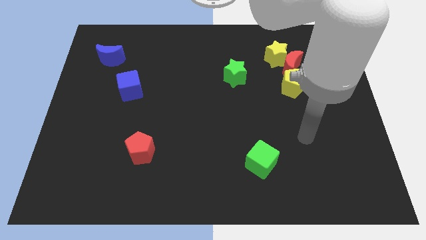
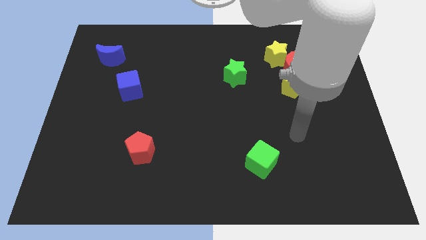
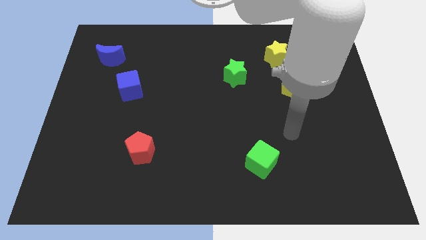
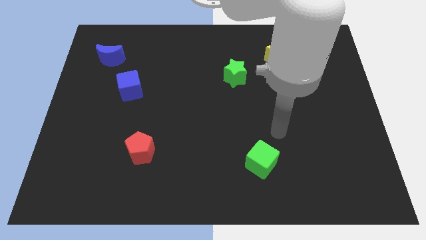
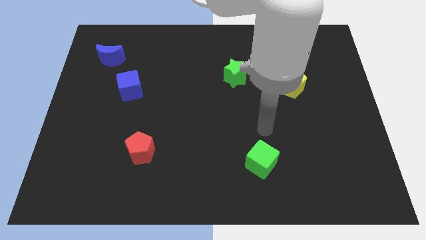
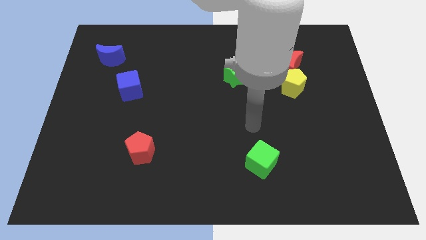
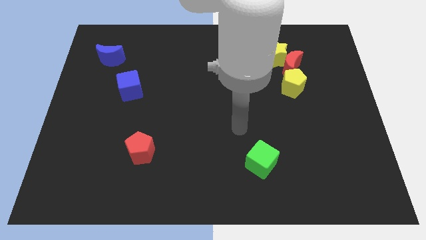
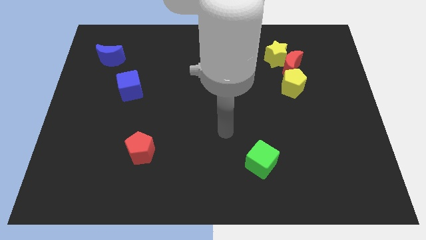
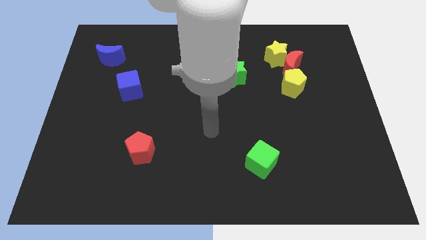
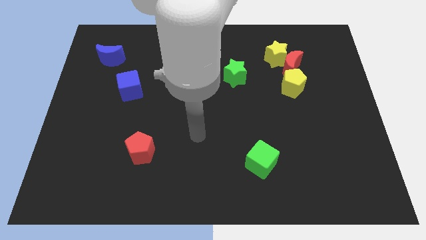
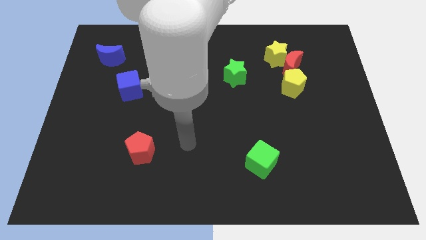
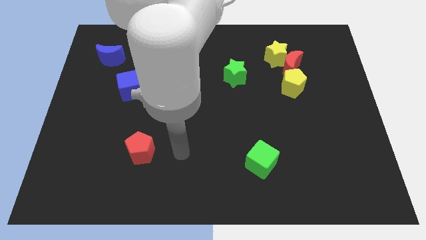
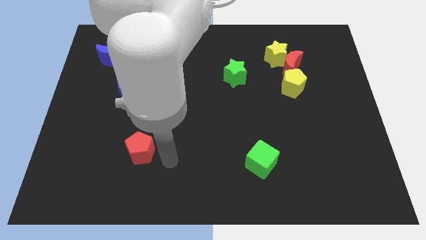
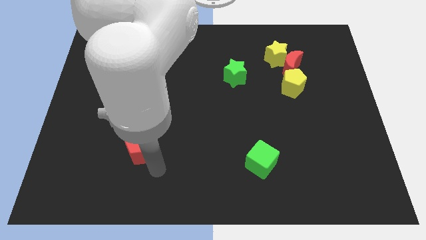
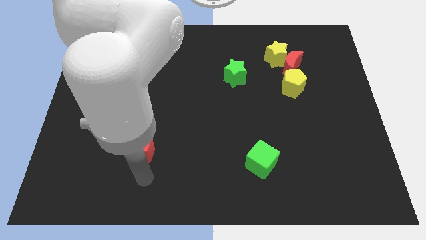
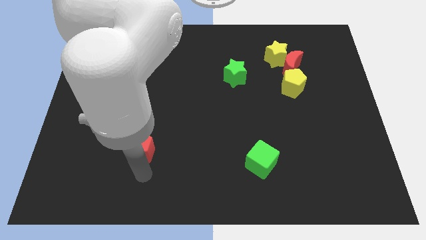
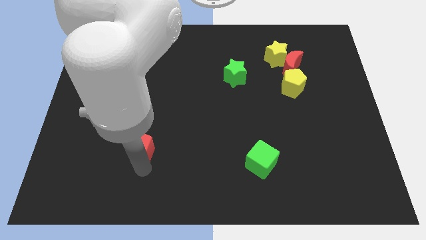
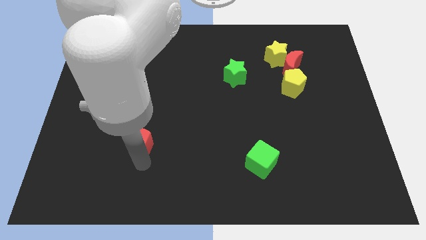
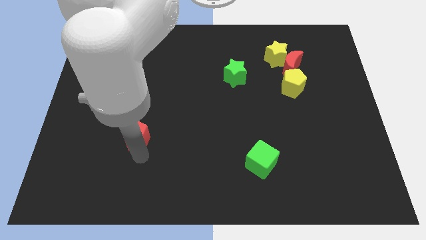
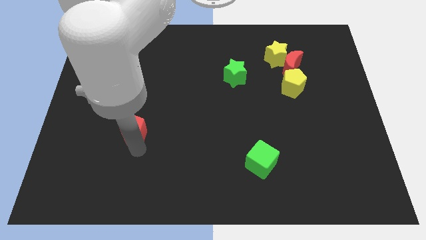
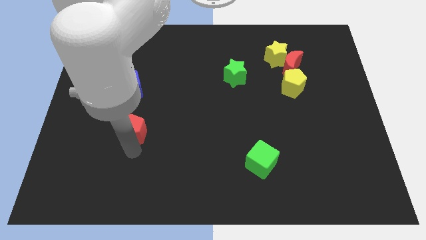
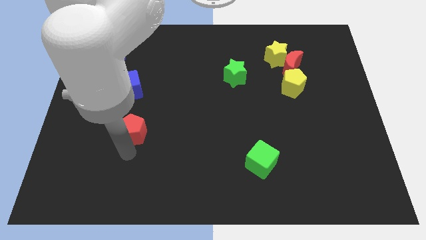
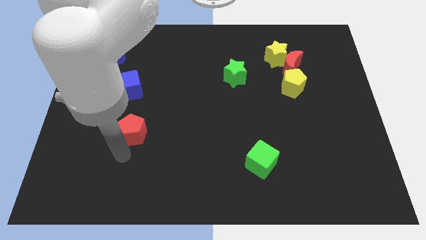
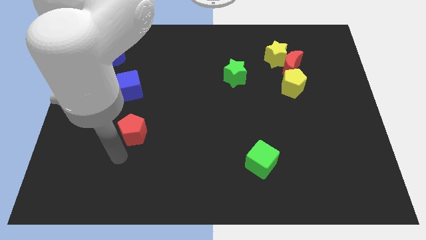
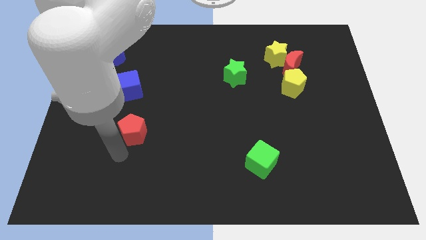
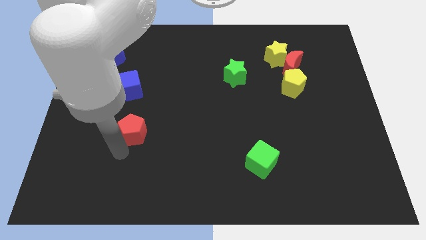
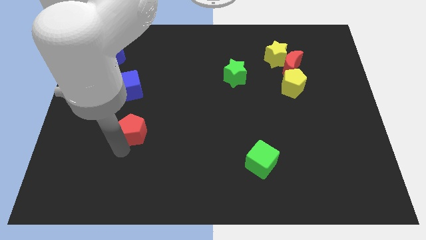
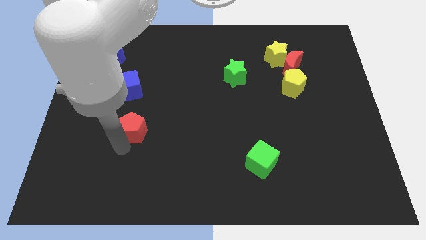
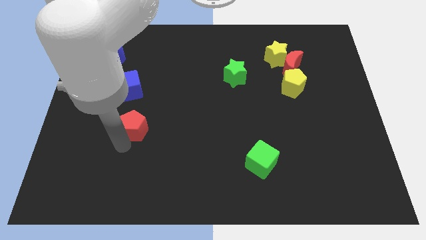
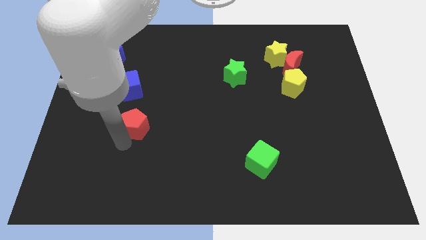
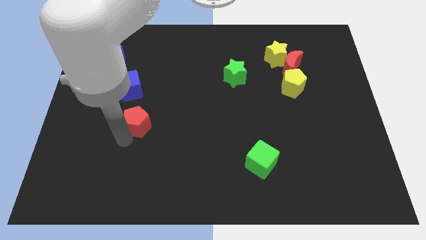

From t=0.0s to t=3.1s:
push the red pentagon up a little bit

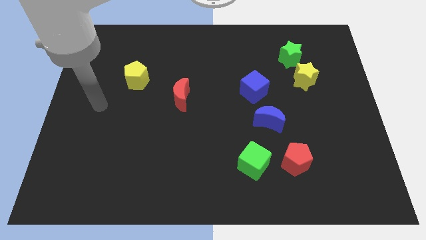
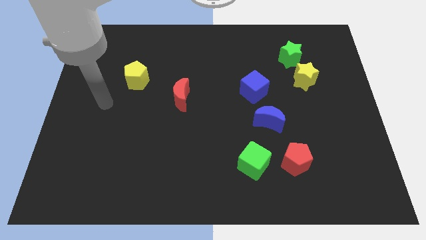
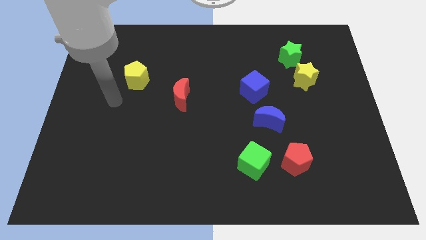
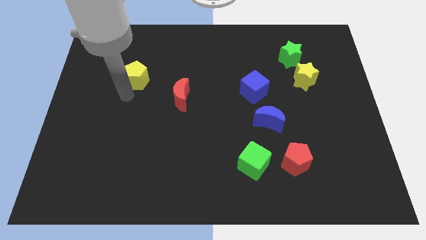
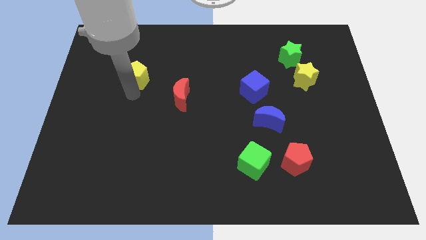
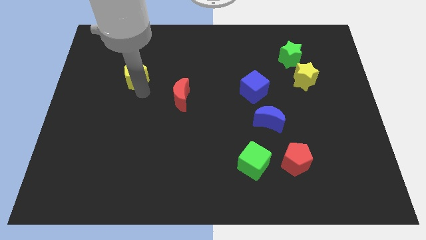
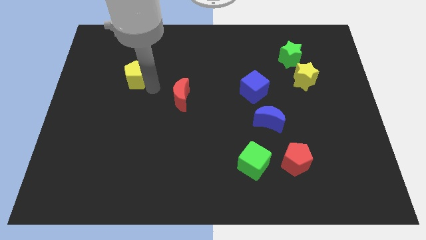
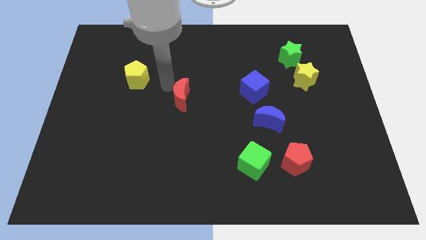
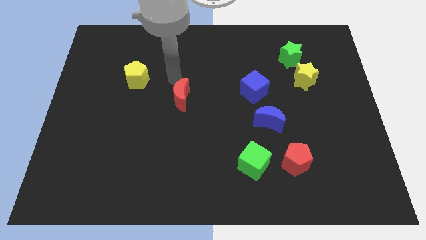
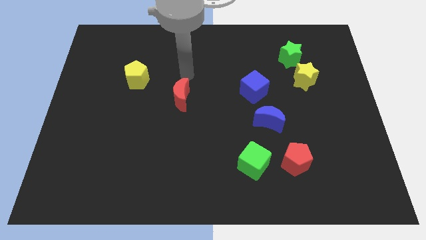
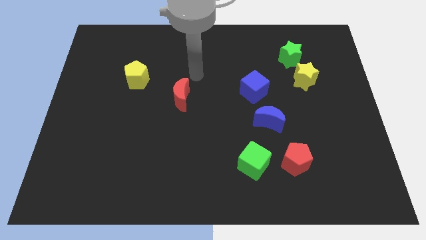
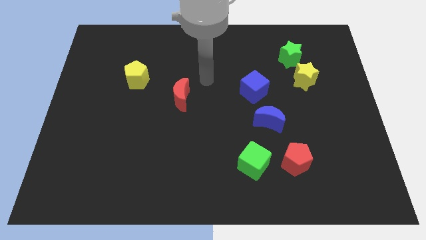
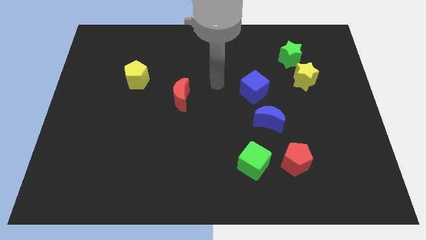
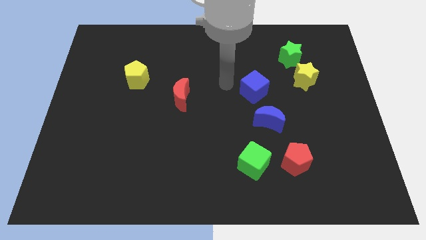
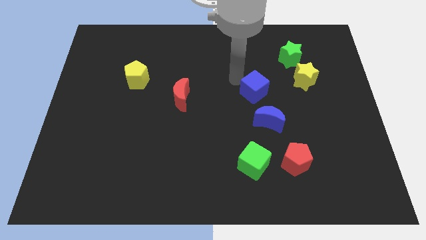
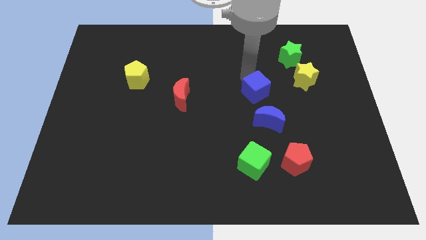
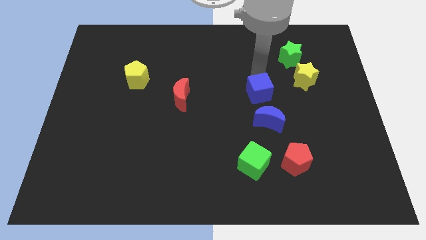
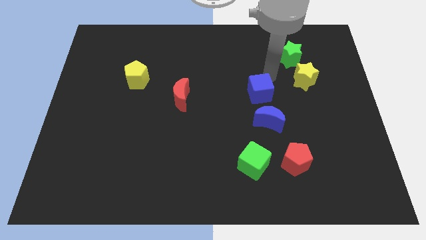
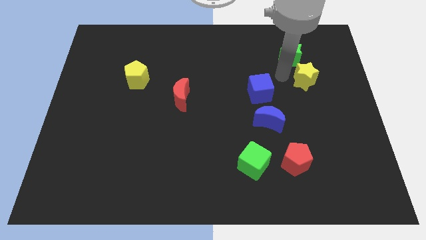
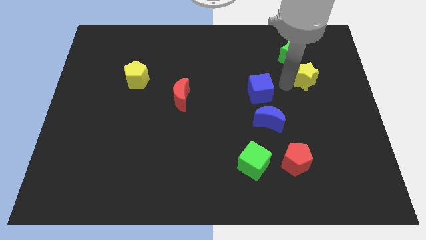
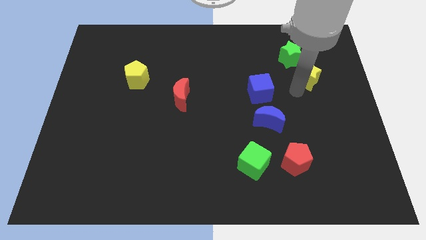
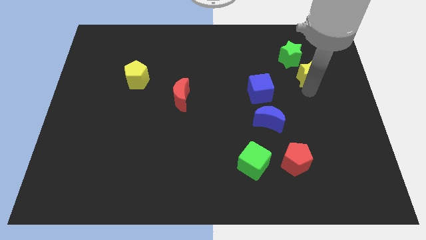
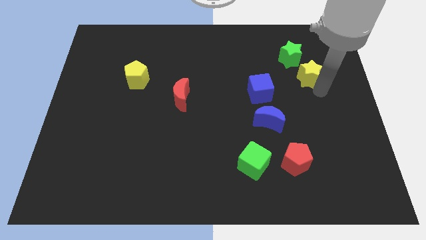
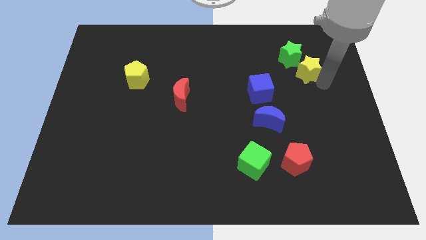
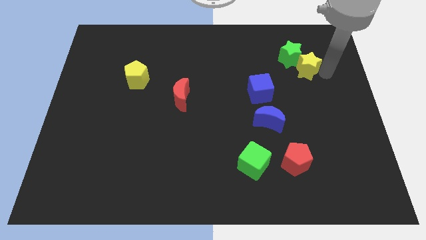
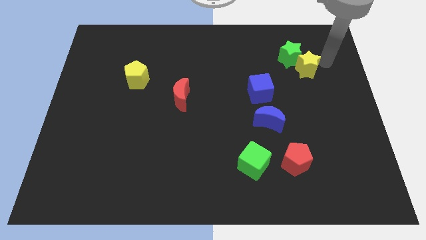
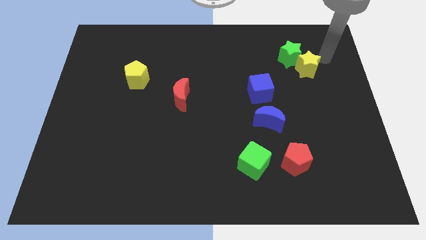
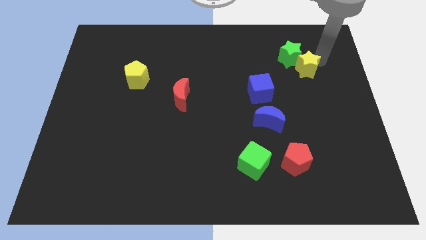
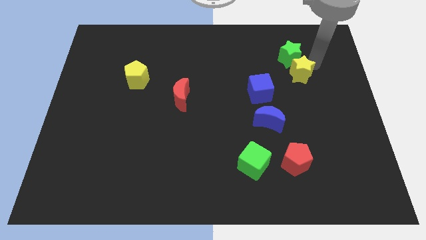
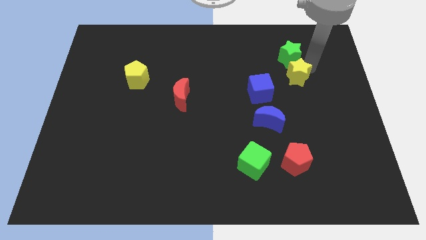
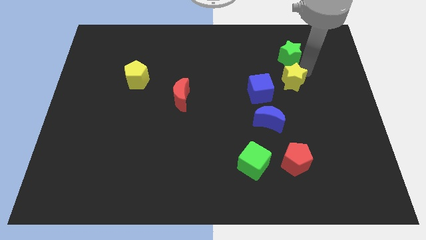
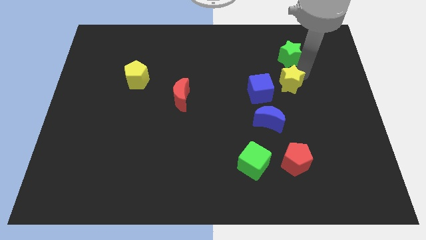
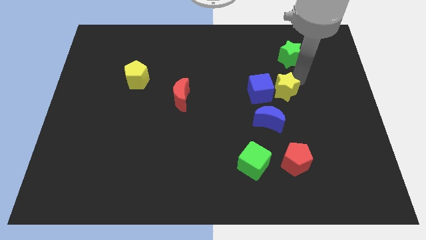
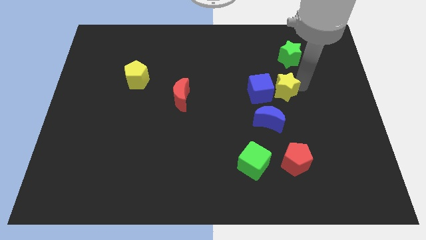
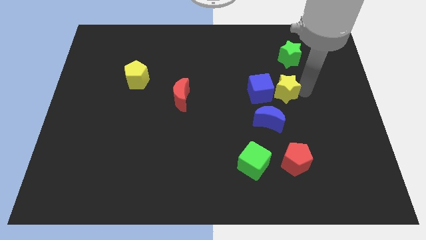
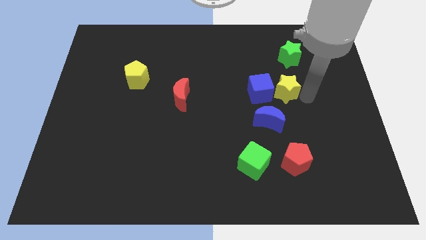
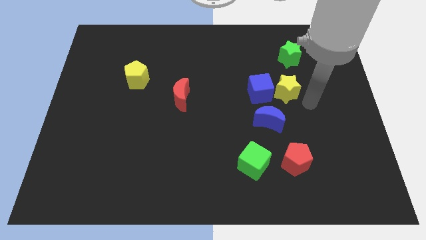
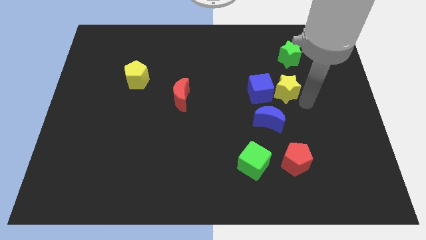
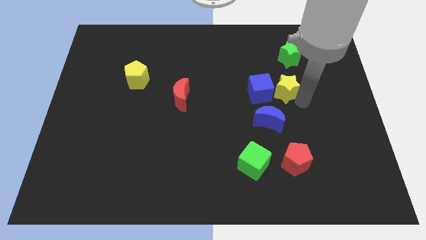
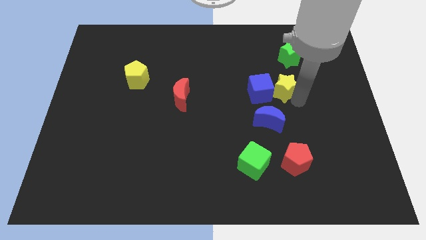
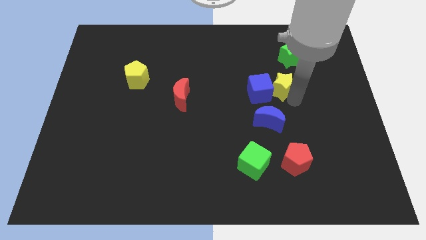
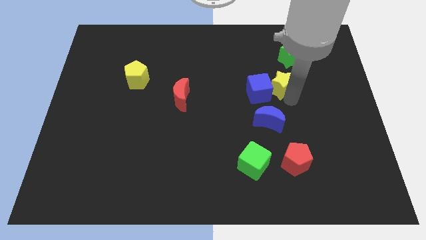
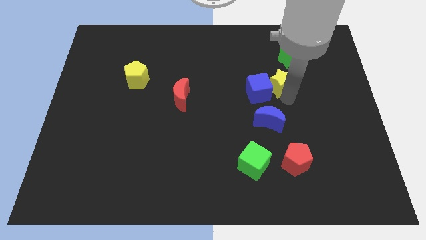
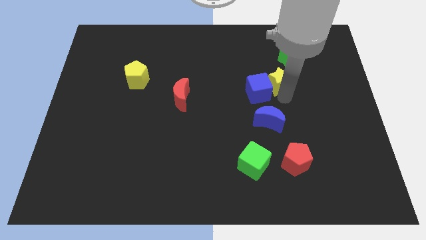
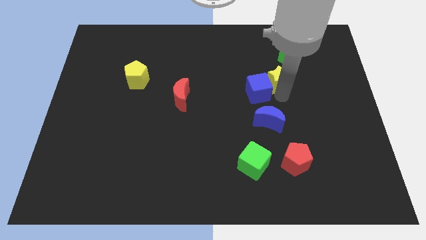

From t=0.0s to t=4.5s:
push the yellow star to the left a little

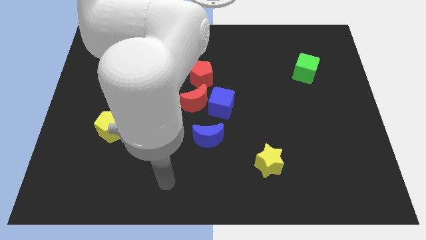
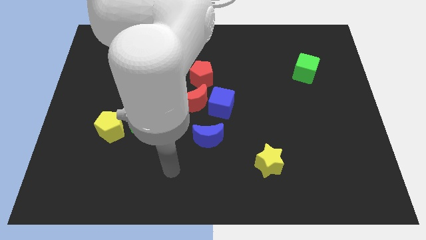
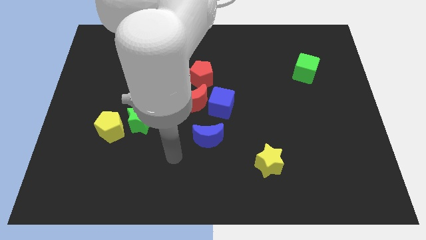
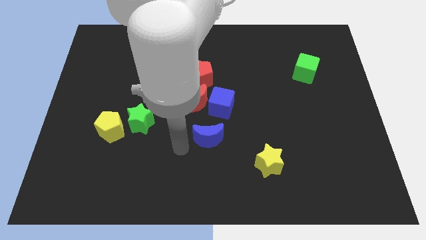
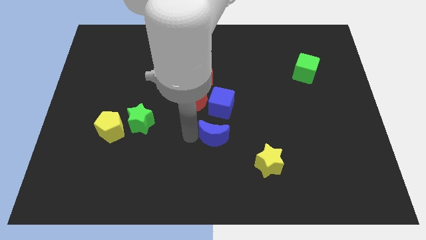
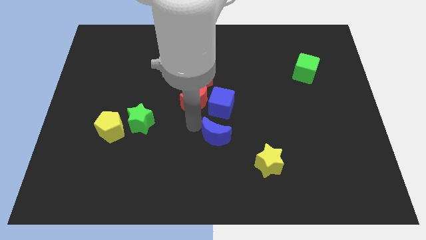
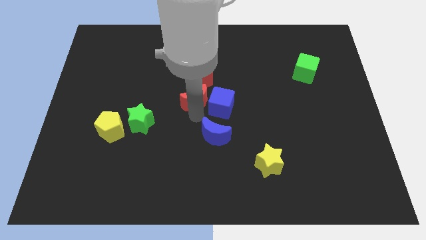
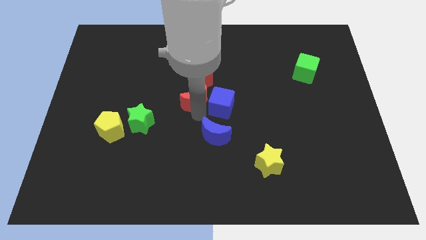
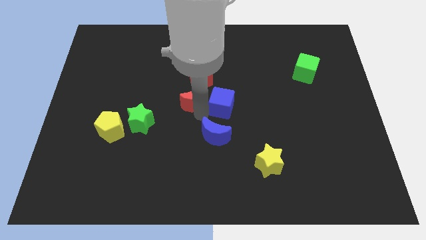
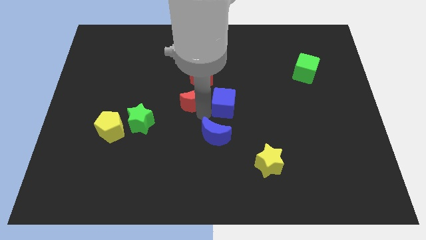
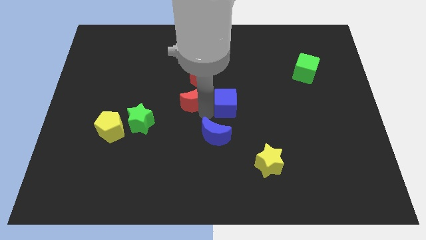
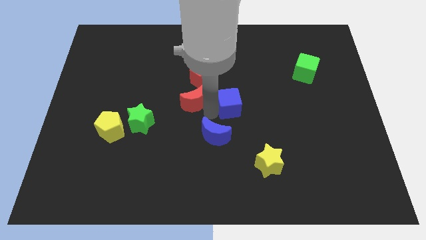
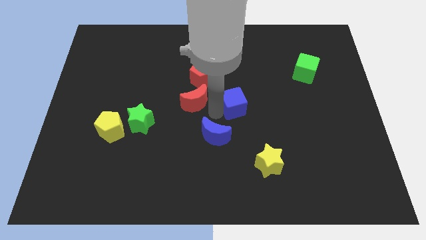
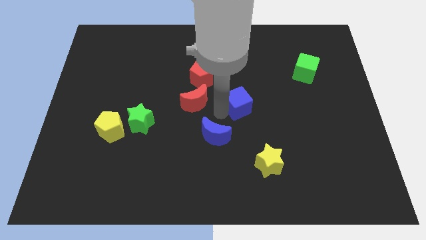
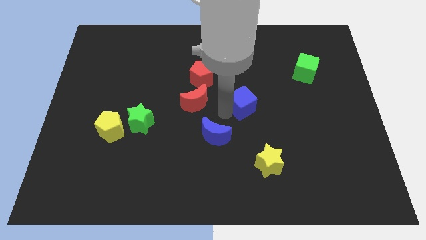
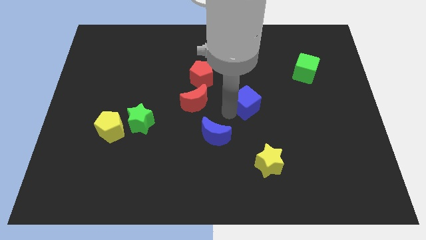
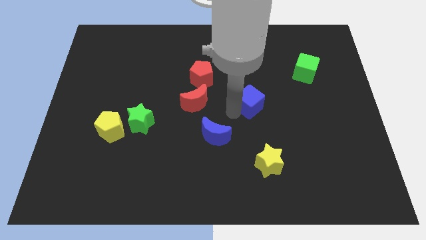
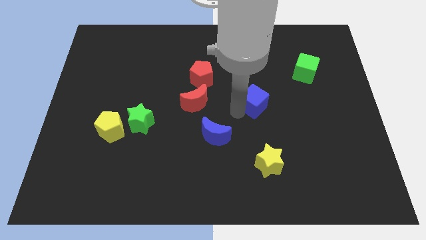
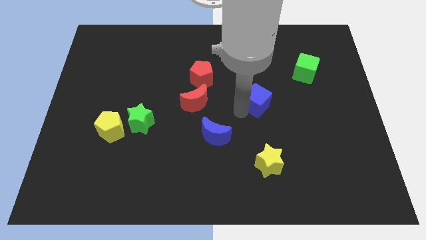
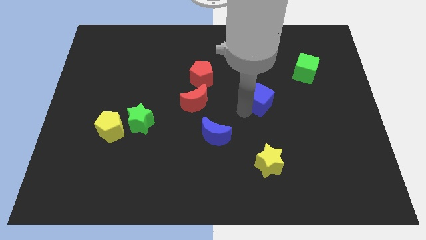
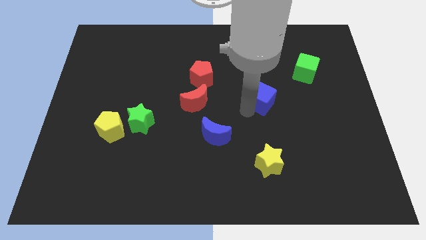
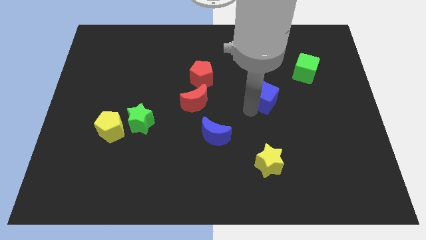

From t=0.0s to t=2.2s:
push the blue cube a bit up and then right
